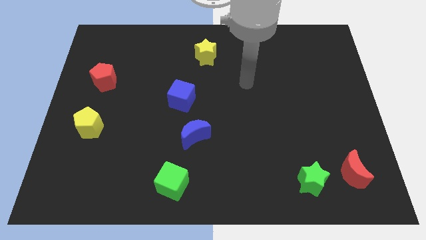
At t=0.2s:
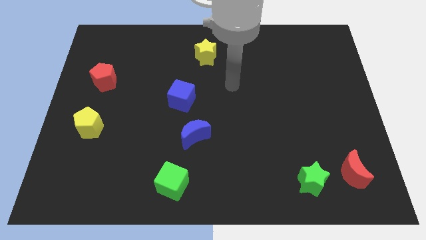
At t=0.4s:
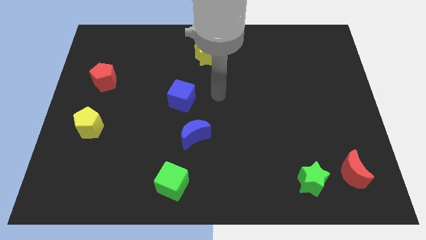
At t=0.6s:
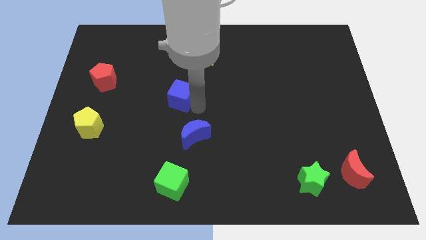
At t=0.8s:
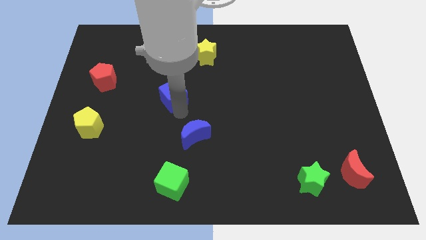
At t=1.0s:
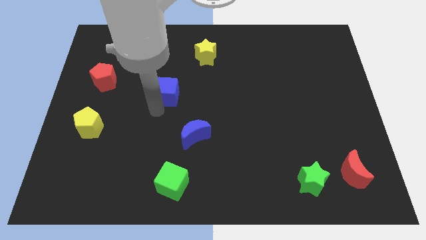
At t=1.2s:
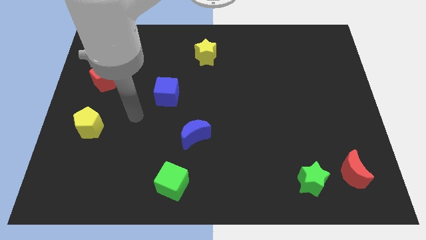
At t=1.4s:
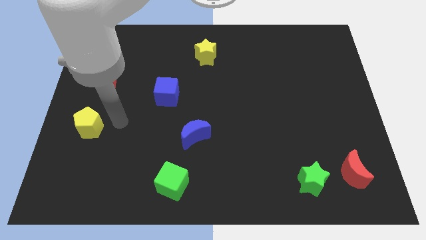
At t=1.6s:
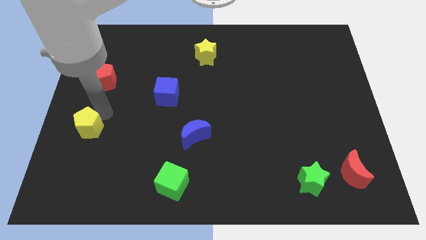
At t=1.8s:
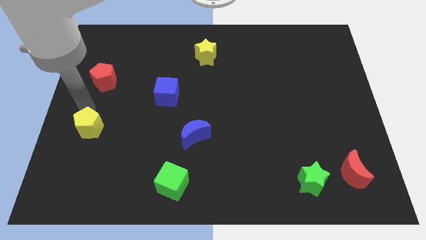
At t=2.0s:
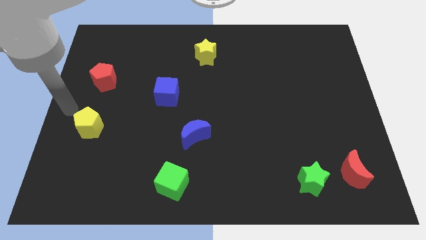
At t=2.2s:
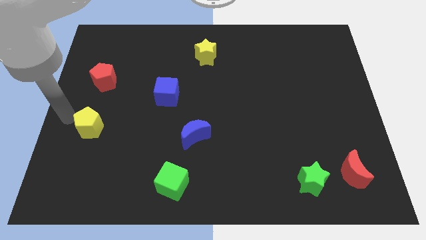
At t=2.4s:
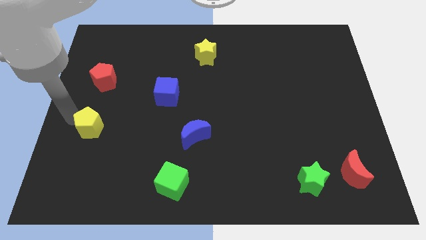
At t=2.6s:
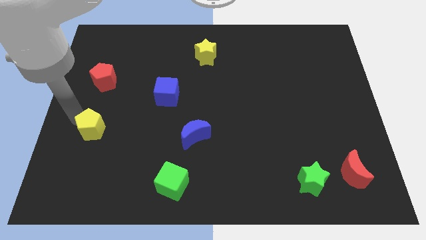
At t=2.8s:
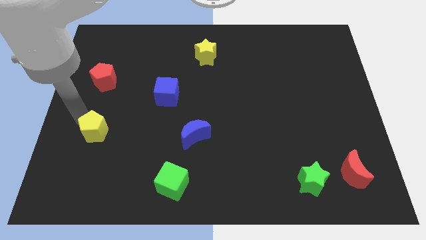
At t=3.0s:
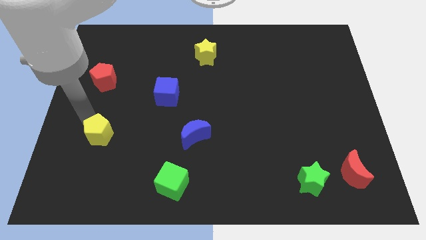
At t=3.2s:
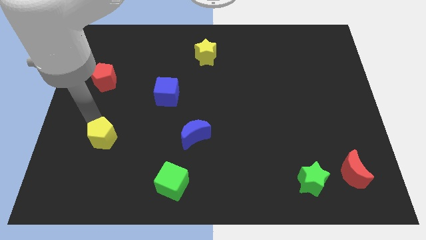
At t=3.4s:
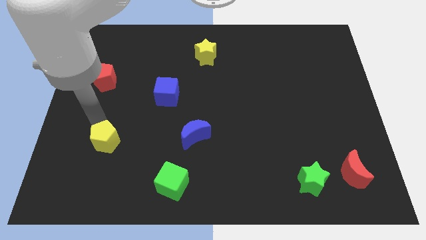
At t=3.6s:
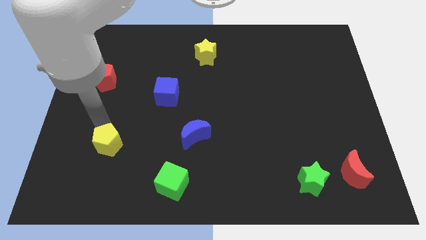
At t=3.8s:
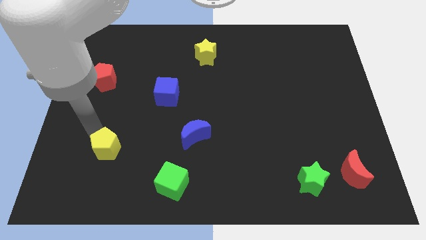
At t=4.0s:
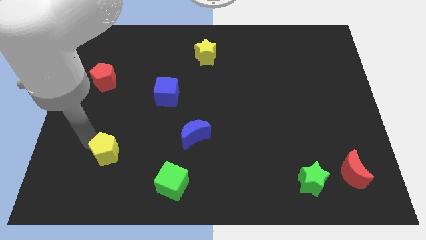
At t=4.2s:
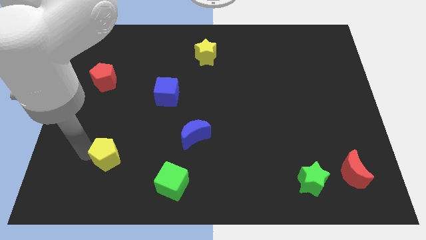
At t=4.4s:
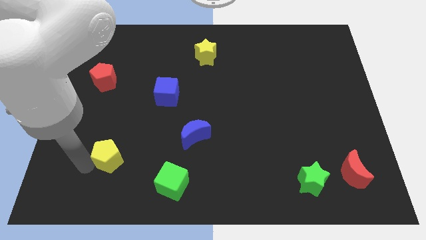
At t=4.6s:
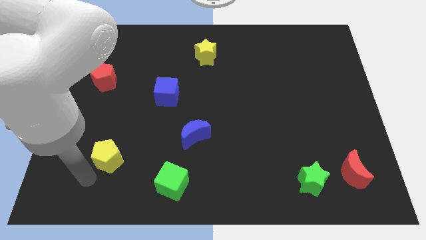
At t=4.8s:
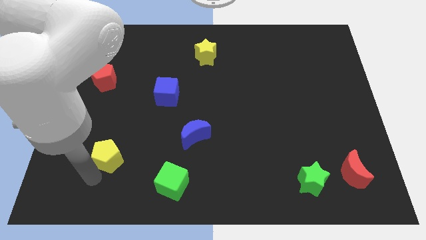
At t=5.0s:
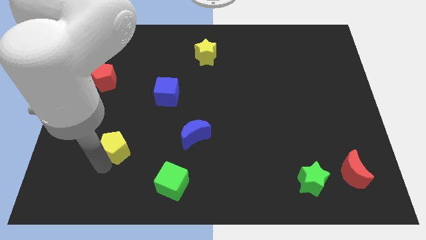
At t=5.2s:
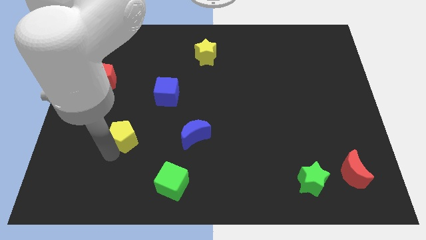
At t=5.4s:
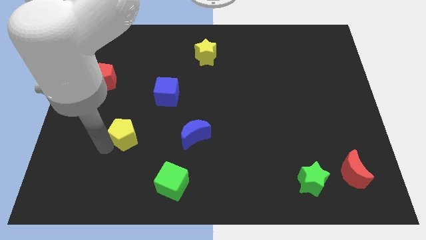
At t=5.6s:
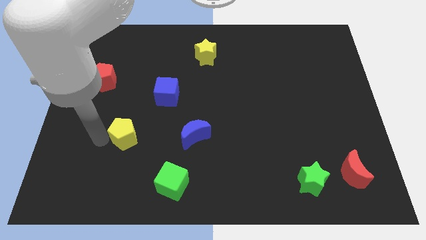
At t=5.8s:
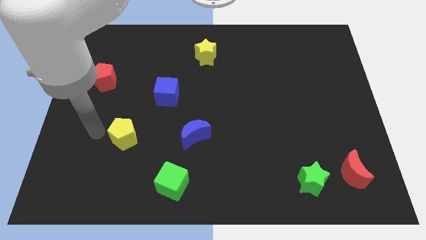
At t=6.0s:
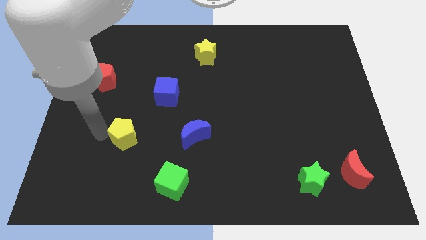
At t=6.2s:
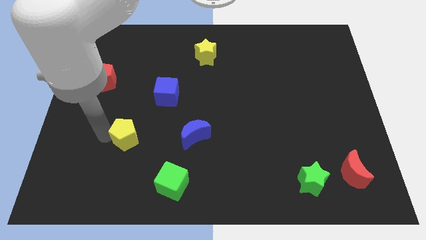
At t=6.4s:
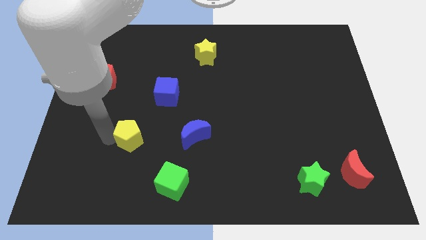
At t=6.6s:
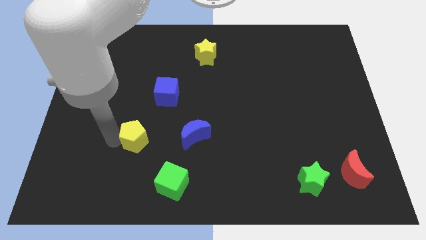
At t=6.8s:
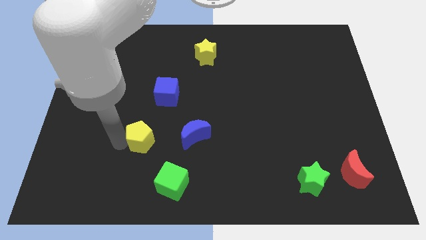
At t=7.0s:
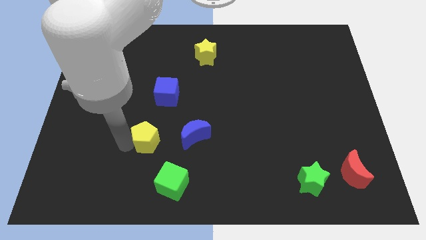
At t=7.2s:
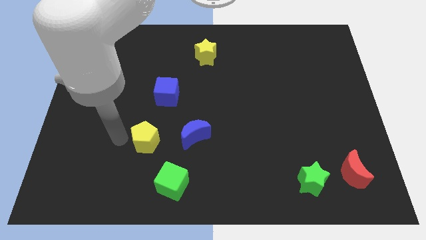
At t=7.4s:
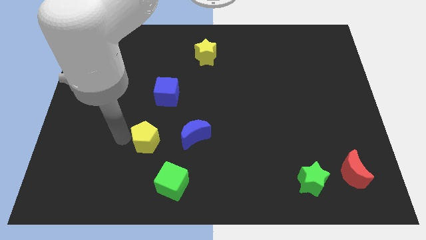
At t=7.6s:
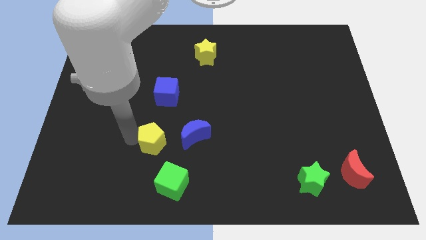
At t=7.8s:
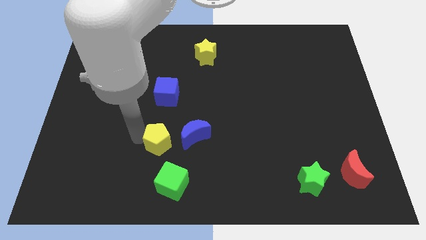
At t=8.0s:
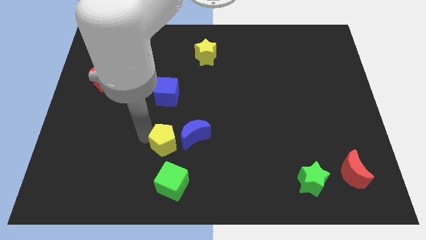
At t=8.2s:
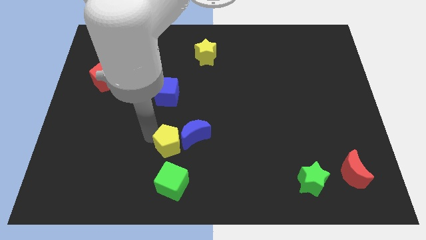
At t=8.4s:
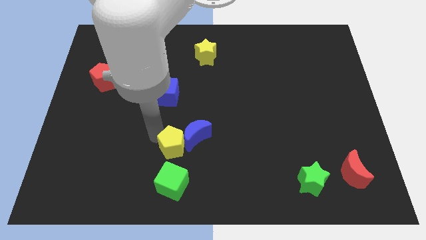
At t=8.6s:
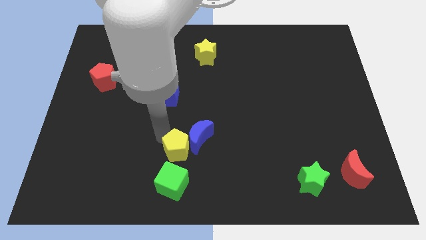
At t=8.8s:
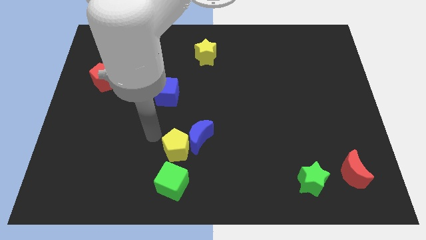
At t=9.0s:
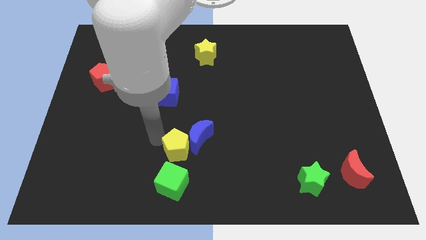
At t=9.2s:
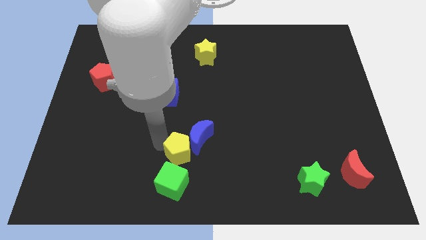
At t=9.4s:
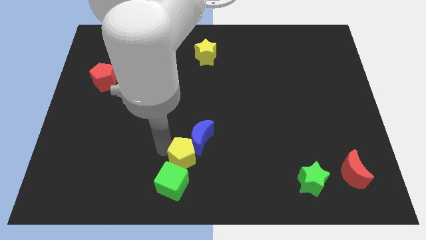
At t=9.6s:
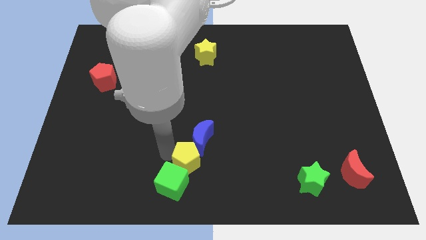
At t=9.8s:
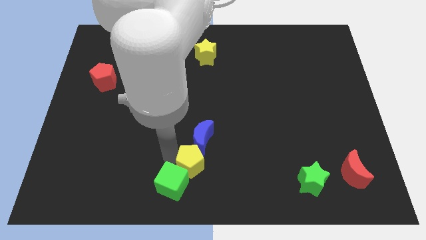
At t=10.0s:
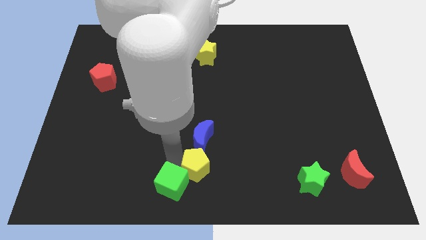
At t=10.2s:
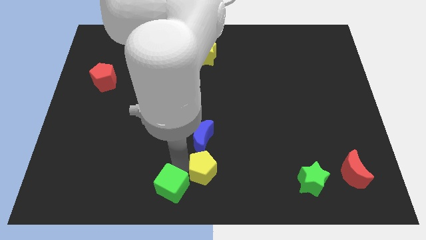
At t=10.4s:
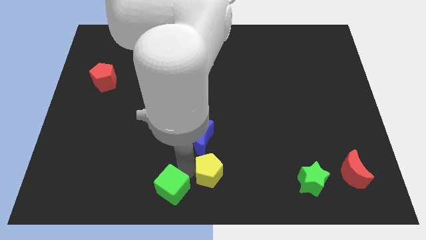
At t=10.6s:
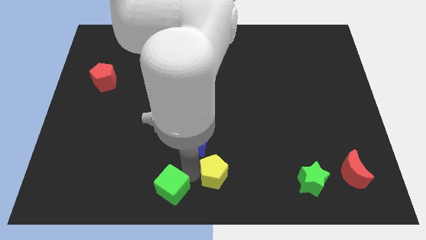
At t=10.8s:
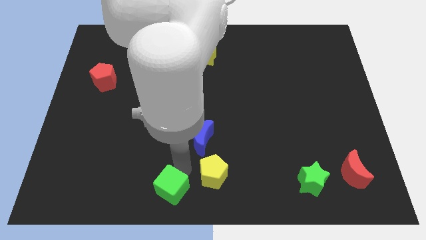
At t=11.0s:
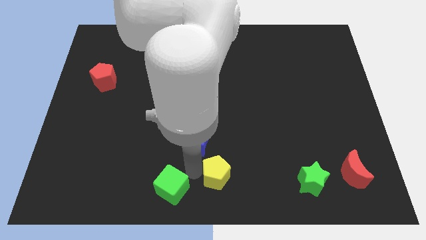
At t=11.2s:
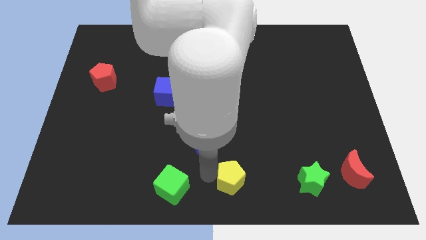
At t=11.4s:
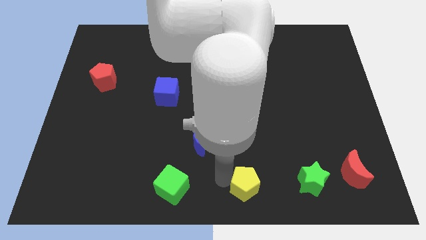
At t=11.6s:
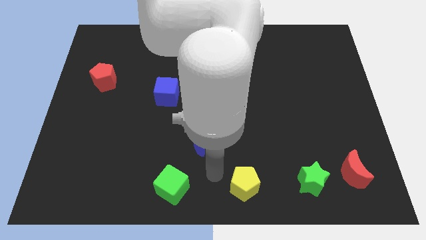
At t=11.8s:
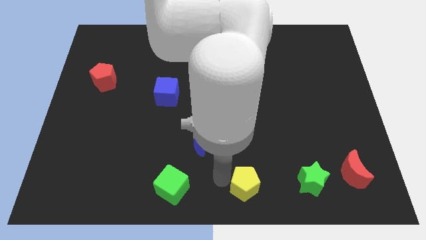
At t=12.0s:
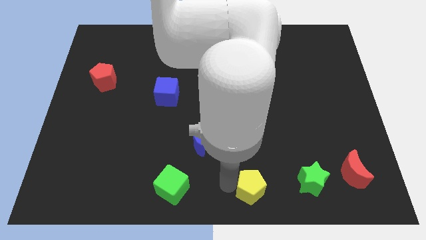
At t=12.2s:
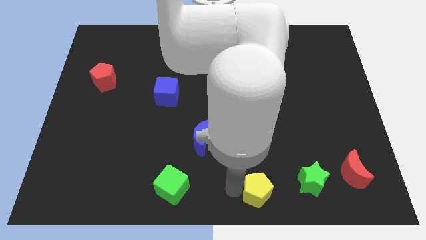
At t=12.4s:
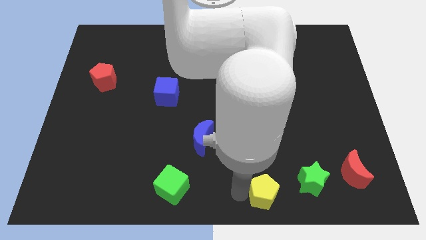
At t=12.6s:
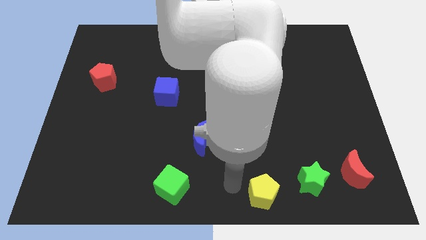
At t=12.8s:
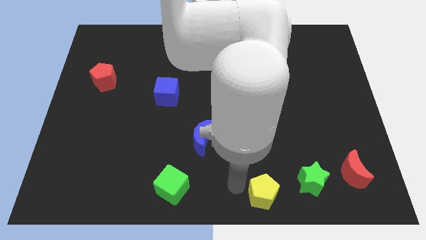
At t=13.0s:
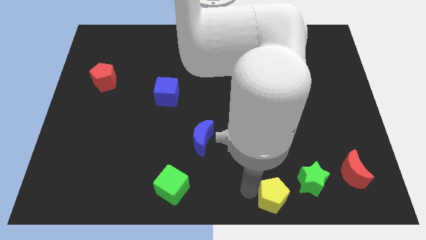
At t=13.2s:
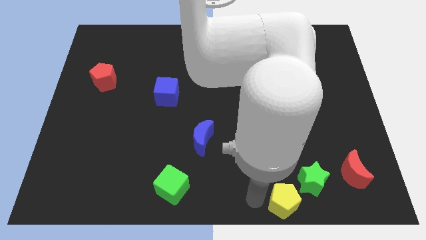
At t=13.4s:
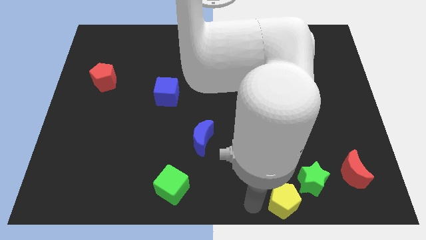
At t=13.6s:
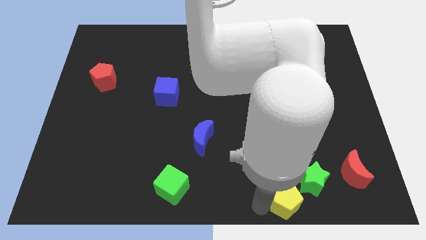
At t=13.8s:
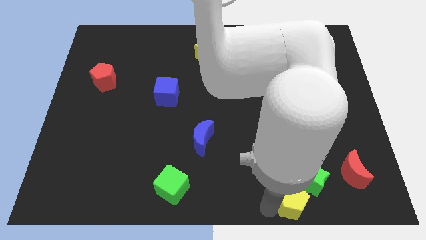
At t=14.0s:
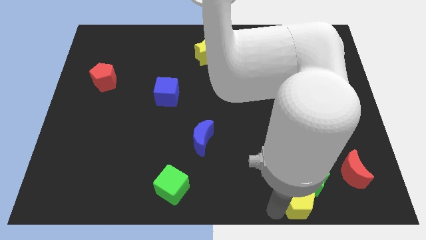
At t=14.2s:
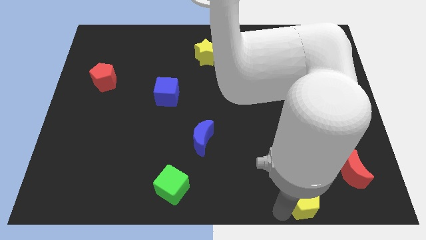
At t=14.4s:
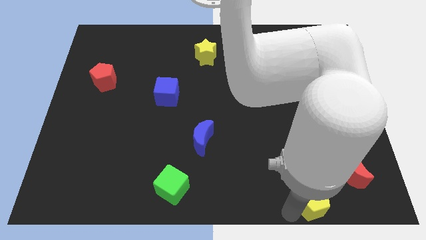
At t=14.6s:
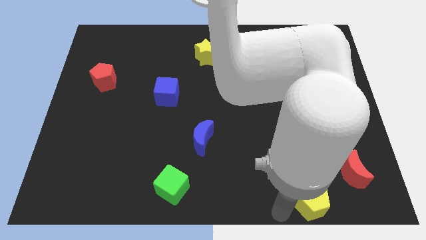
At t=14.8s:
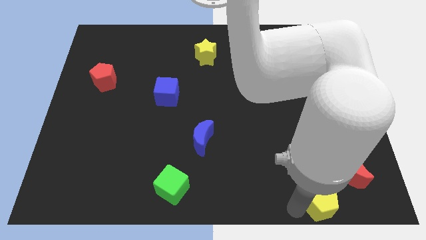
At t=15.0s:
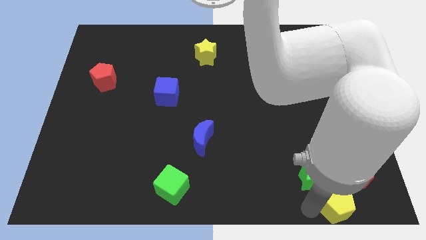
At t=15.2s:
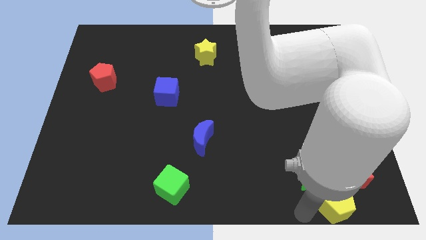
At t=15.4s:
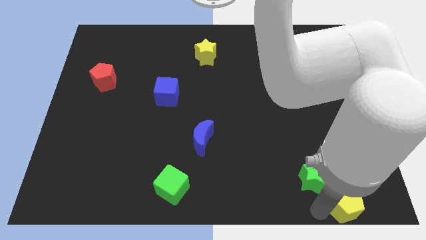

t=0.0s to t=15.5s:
put the yellow pentagon to the bottom right corner
